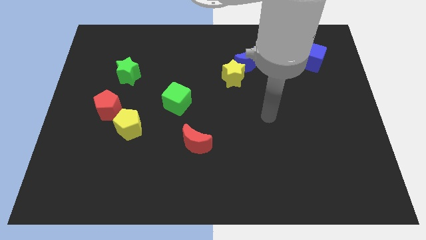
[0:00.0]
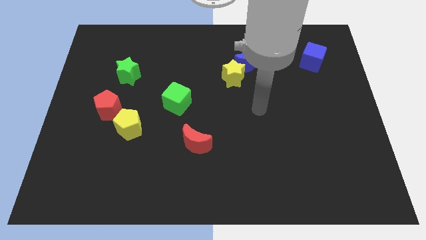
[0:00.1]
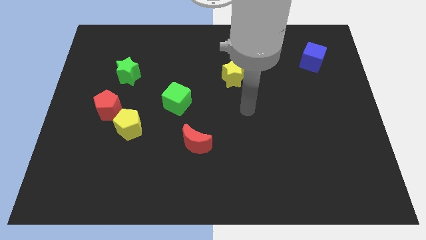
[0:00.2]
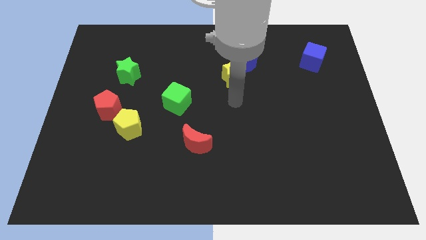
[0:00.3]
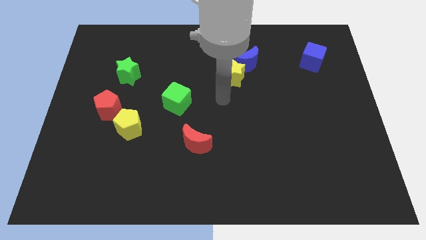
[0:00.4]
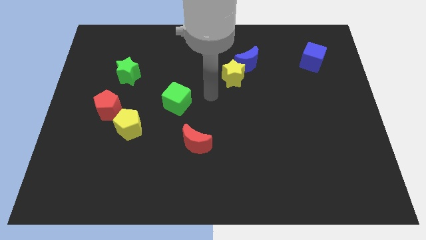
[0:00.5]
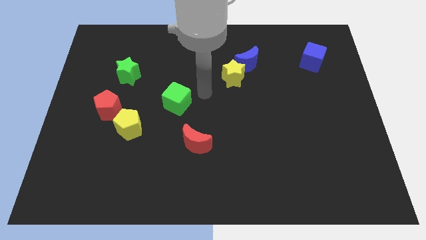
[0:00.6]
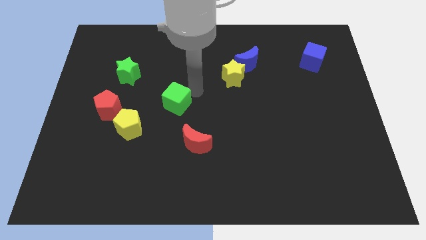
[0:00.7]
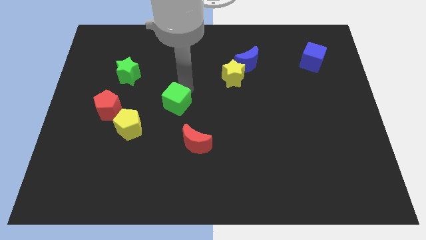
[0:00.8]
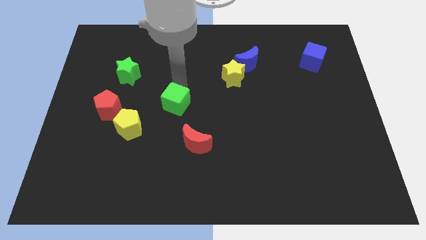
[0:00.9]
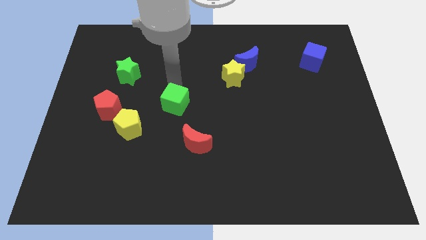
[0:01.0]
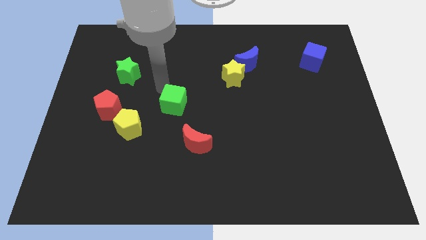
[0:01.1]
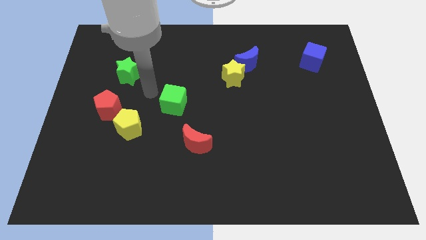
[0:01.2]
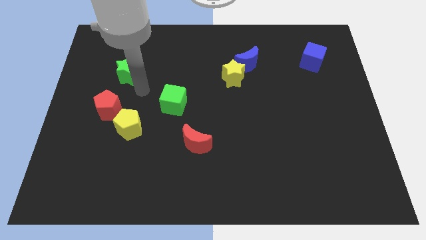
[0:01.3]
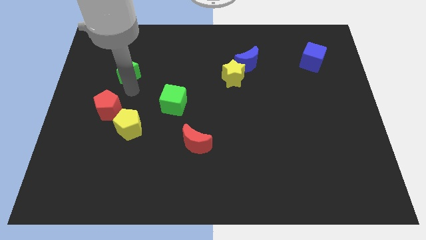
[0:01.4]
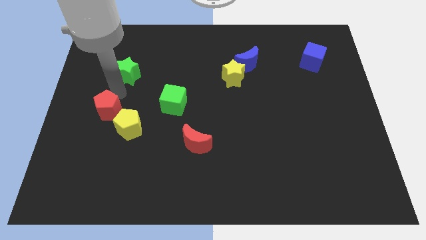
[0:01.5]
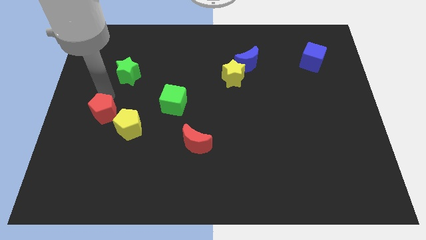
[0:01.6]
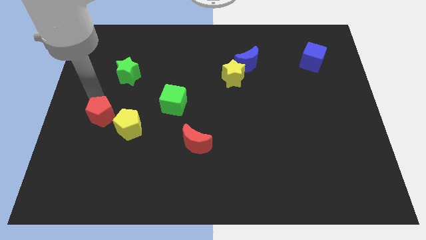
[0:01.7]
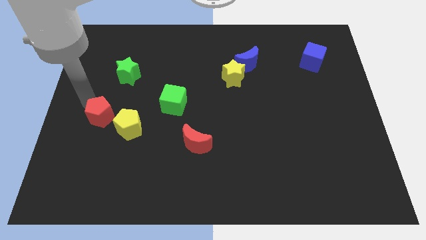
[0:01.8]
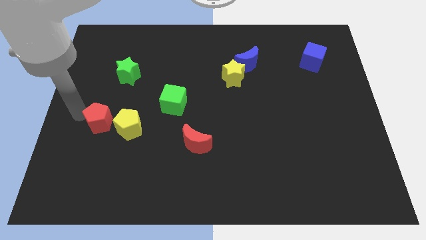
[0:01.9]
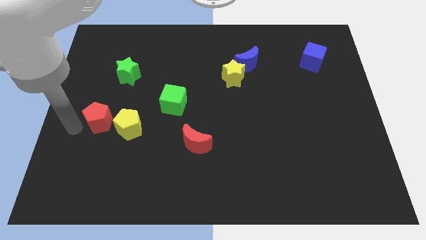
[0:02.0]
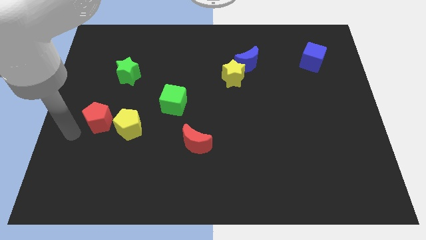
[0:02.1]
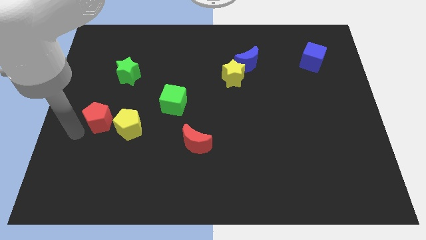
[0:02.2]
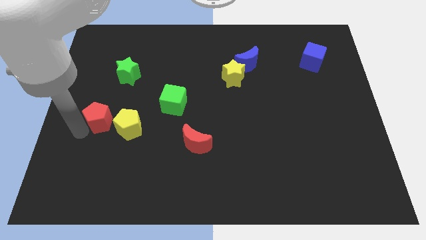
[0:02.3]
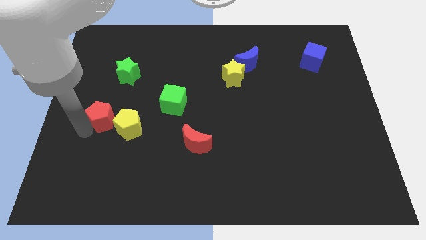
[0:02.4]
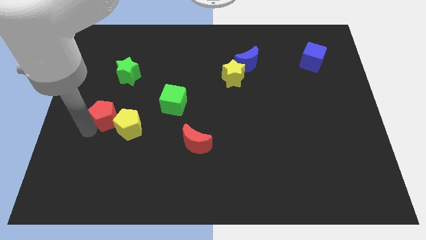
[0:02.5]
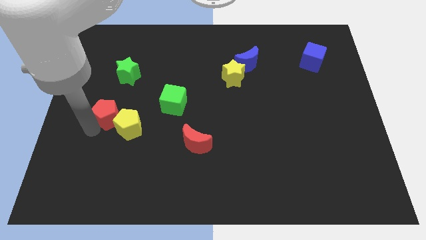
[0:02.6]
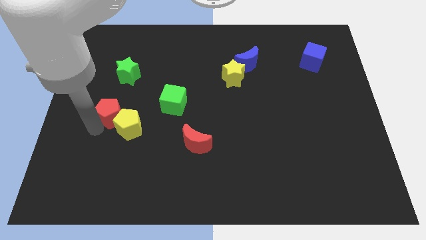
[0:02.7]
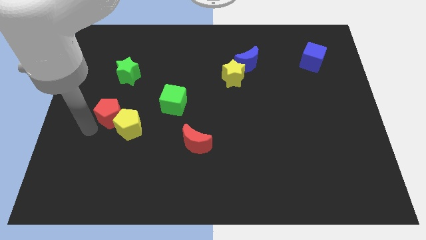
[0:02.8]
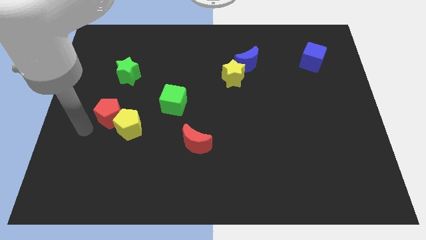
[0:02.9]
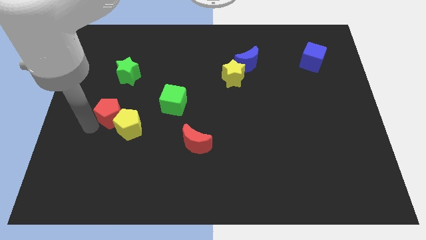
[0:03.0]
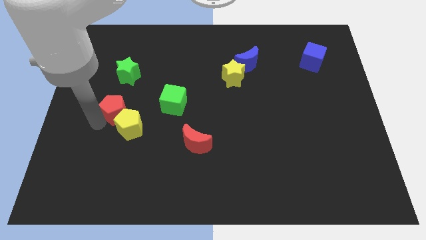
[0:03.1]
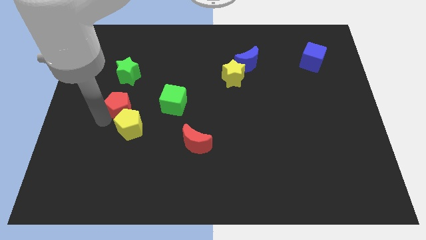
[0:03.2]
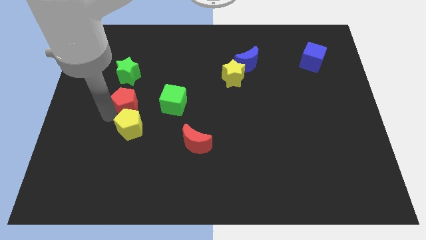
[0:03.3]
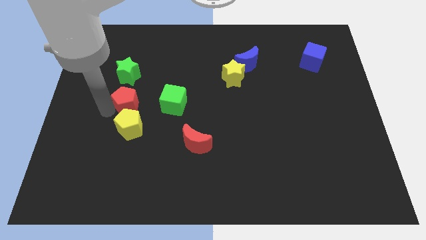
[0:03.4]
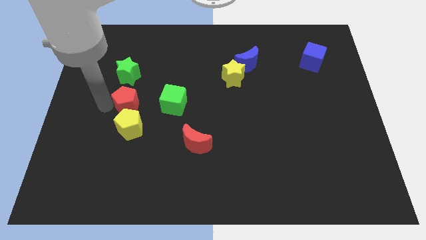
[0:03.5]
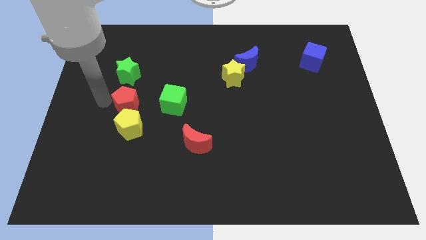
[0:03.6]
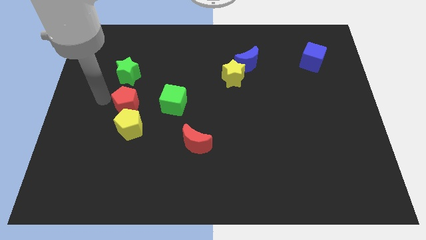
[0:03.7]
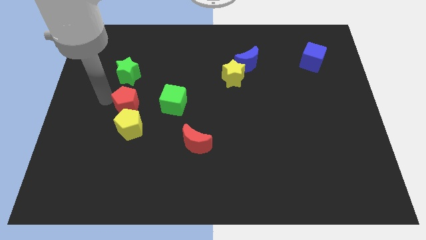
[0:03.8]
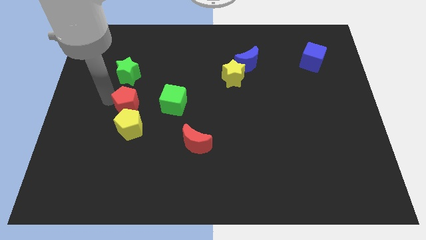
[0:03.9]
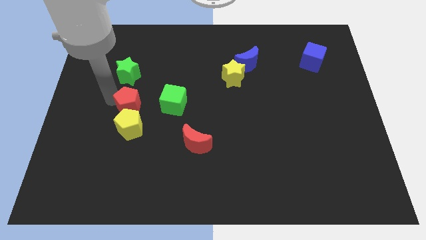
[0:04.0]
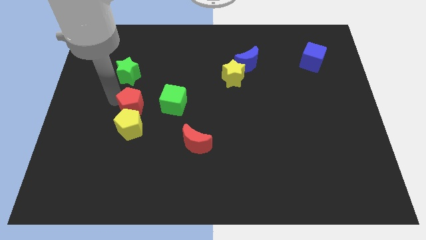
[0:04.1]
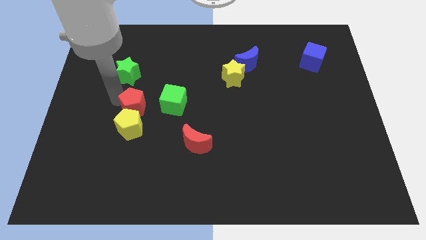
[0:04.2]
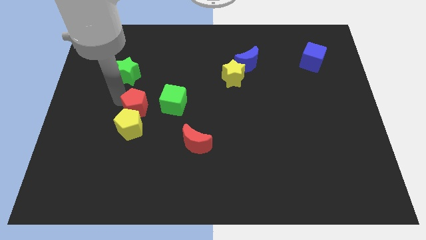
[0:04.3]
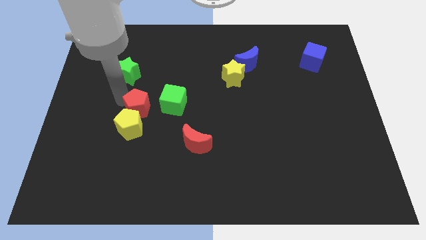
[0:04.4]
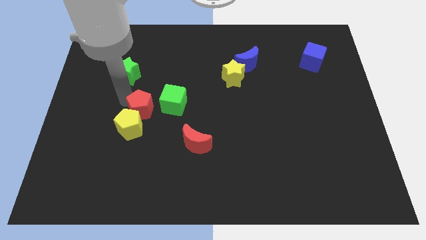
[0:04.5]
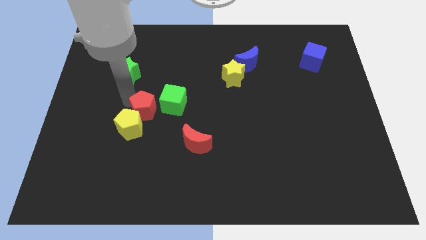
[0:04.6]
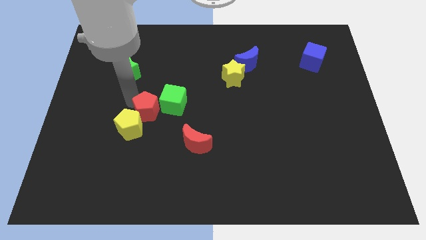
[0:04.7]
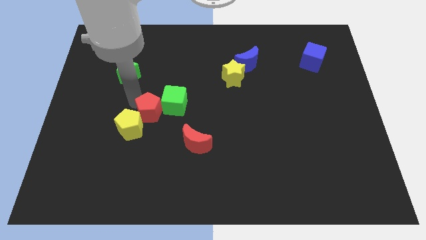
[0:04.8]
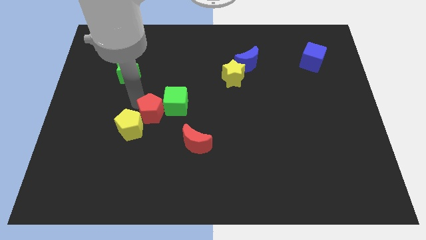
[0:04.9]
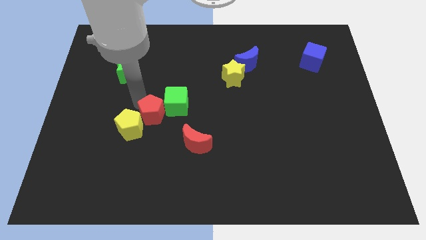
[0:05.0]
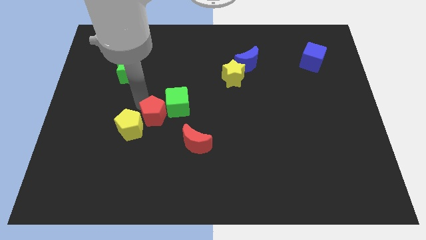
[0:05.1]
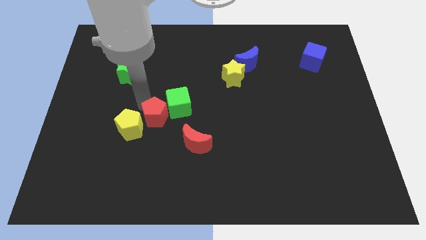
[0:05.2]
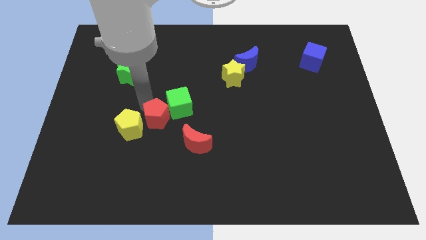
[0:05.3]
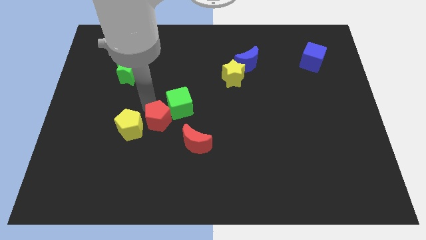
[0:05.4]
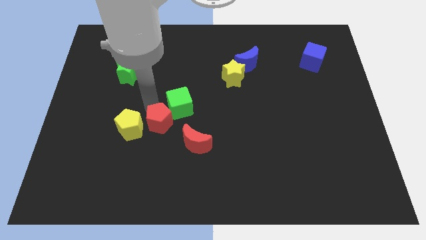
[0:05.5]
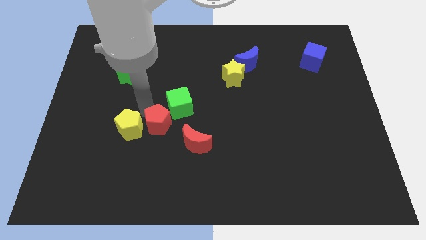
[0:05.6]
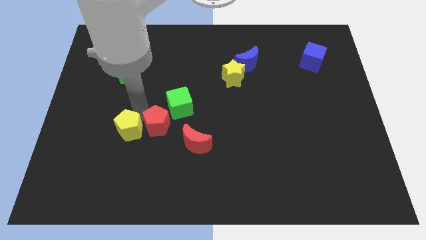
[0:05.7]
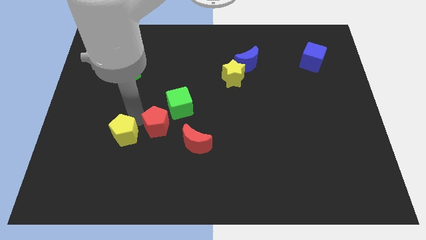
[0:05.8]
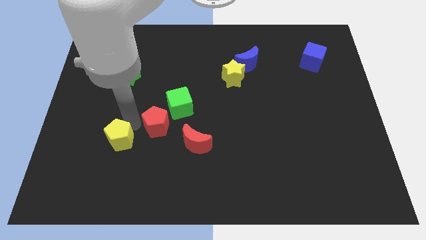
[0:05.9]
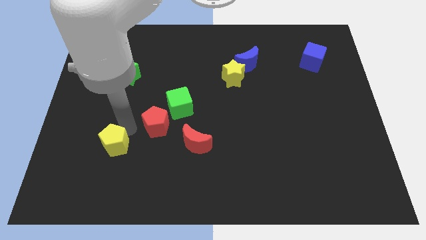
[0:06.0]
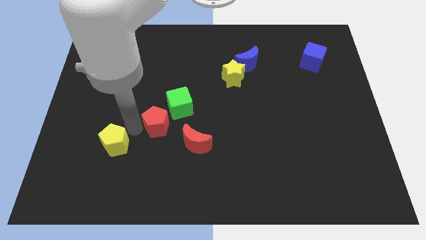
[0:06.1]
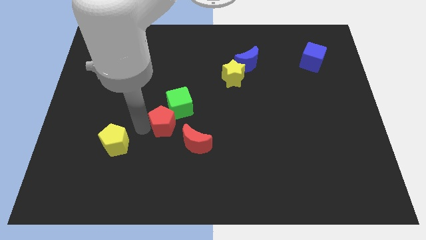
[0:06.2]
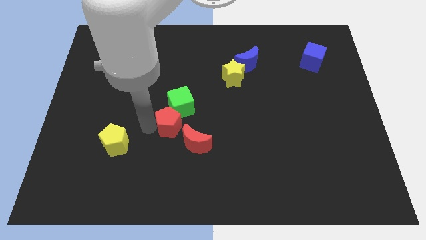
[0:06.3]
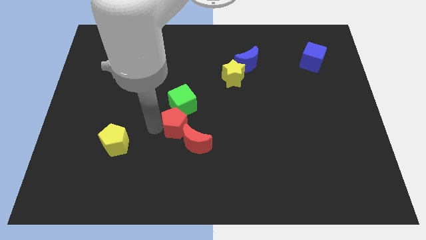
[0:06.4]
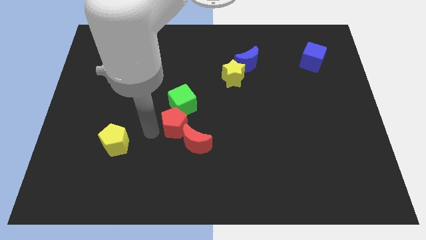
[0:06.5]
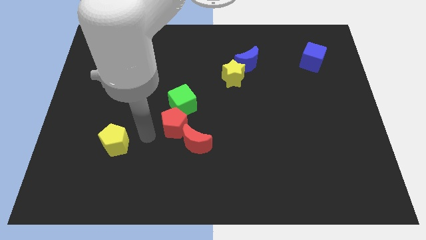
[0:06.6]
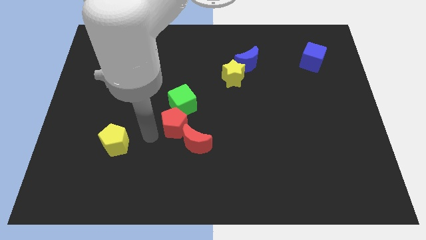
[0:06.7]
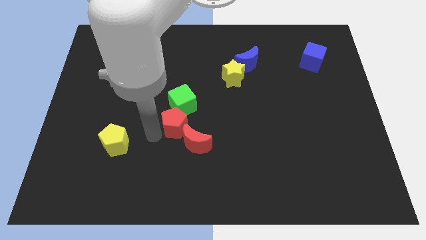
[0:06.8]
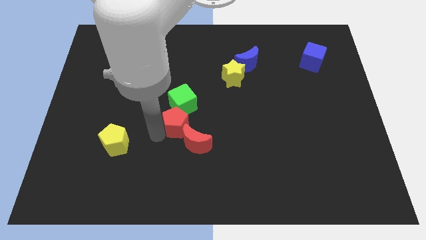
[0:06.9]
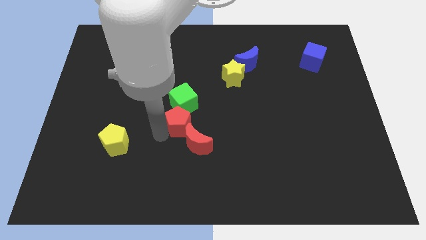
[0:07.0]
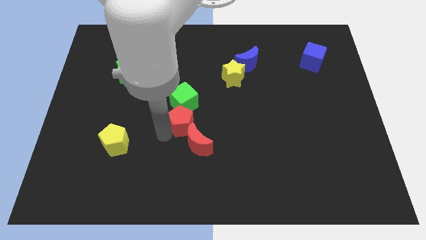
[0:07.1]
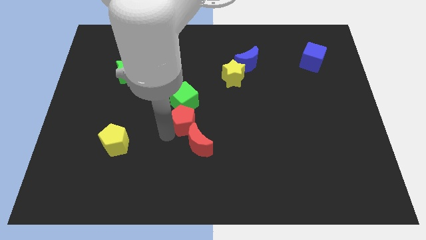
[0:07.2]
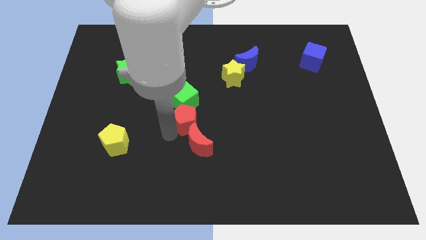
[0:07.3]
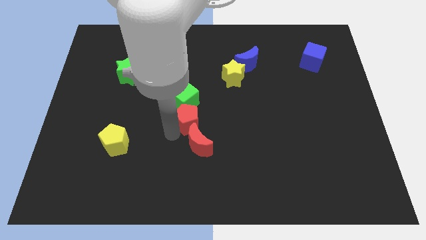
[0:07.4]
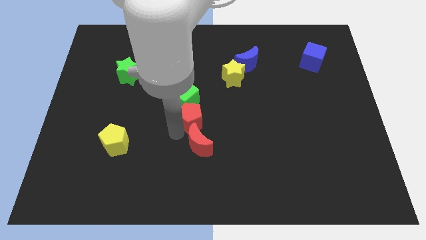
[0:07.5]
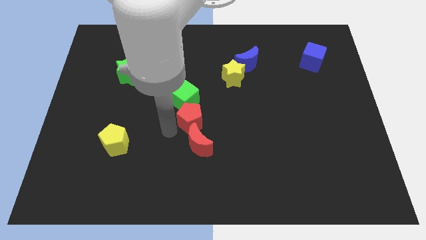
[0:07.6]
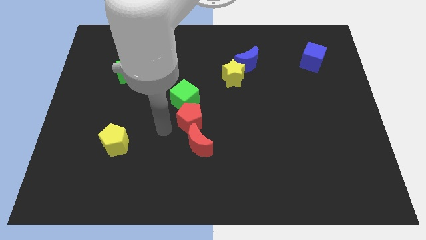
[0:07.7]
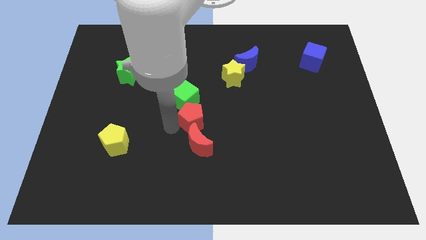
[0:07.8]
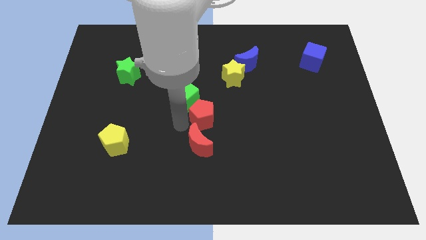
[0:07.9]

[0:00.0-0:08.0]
move the red pentagon right
